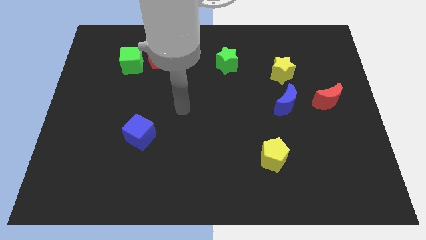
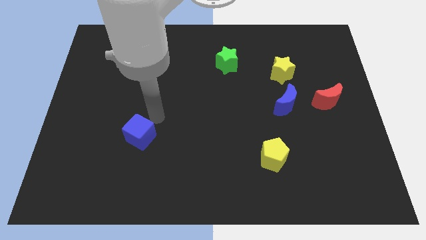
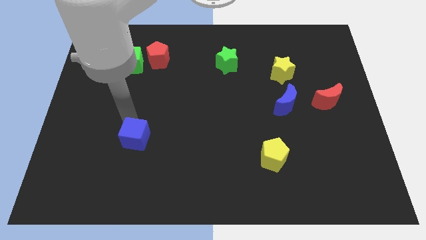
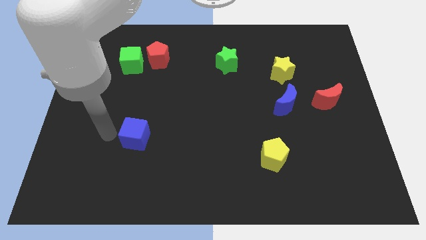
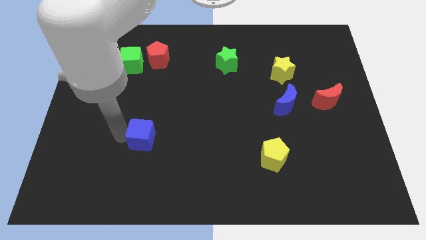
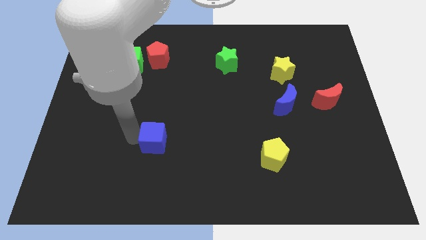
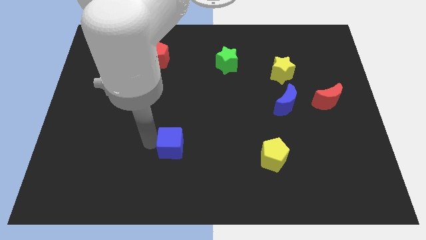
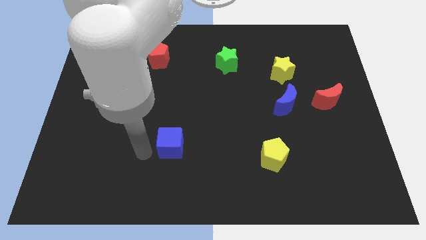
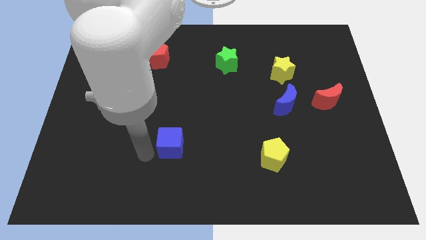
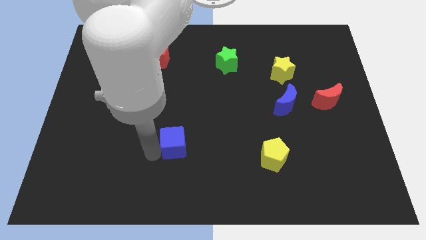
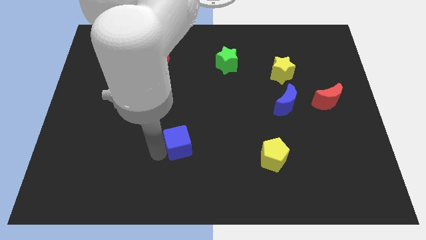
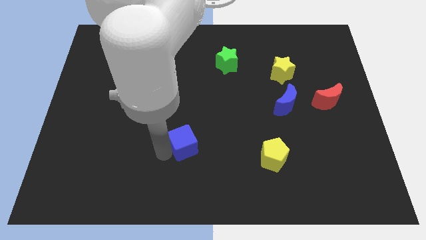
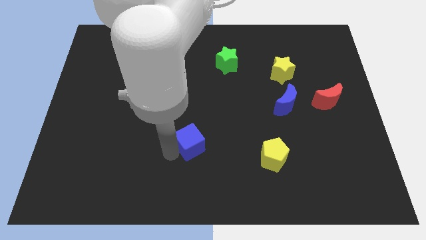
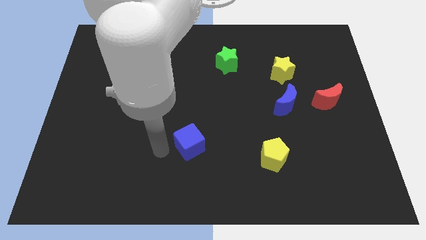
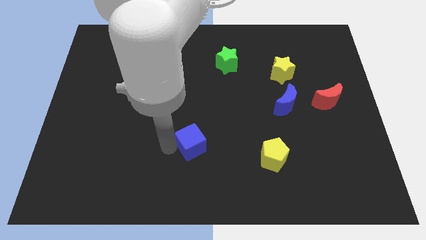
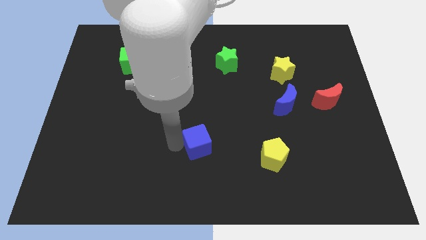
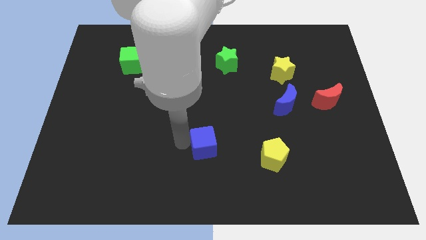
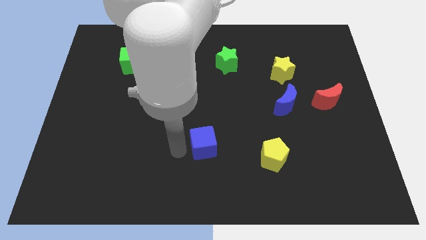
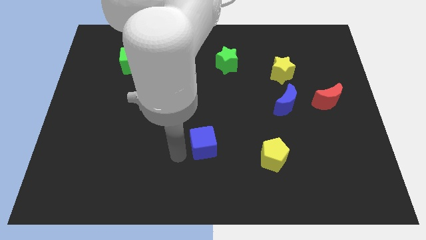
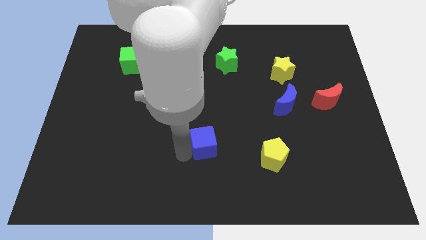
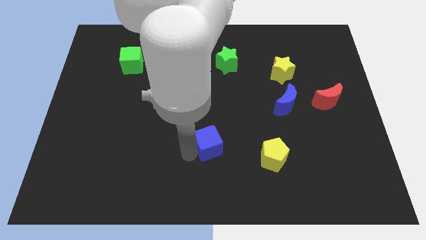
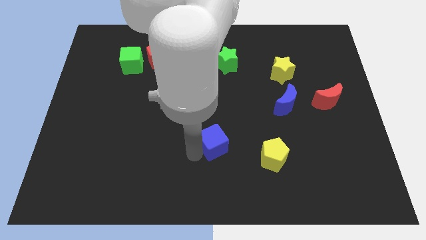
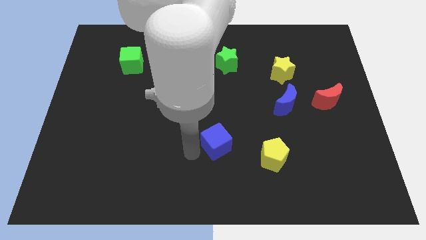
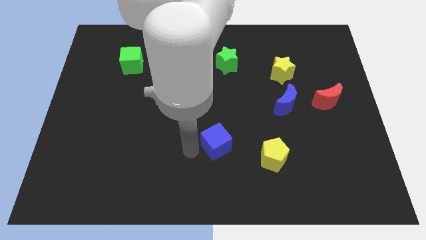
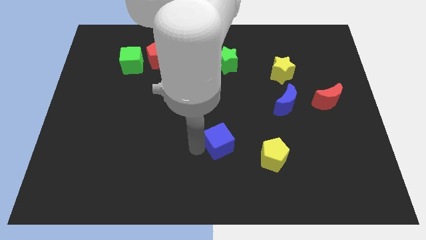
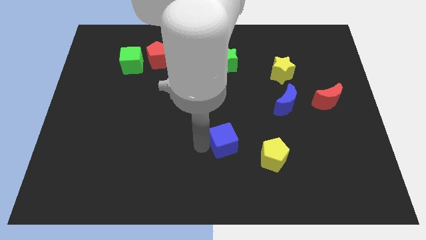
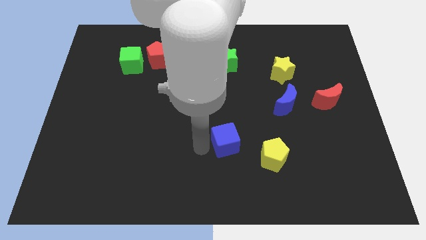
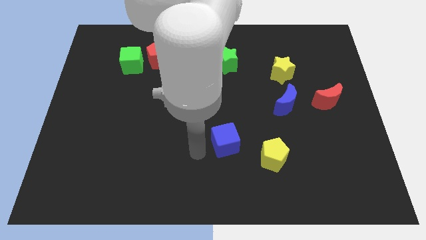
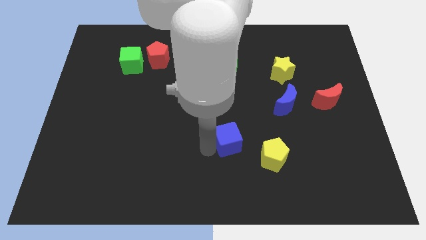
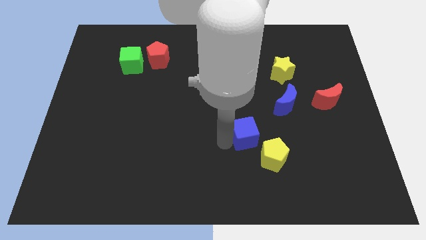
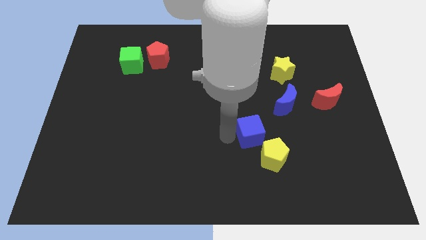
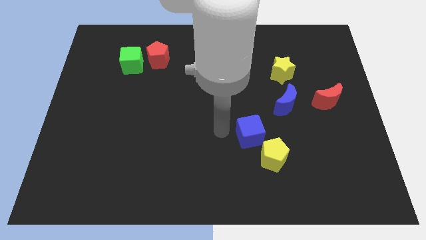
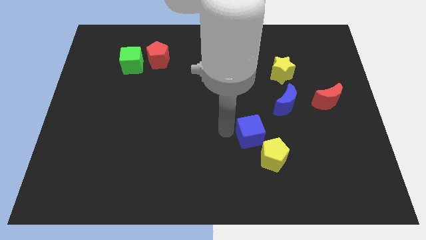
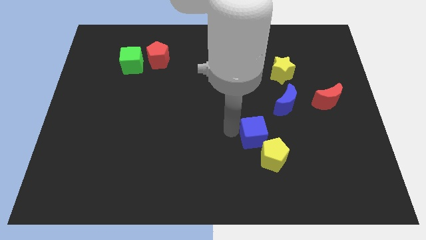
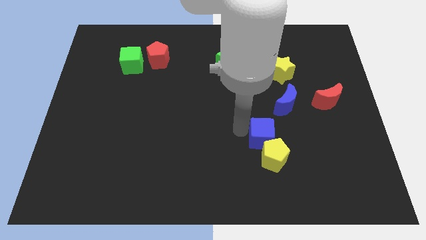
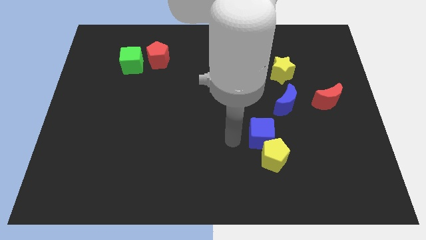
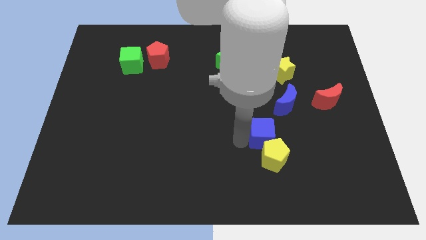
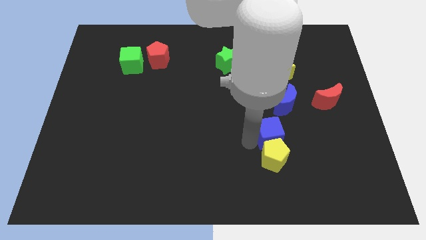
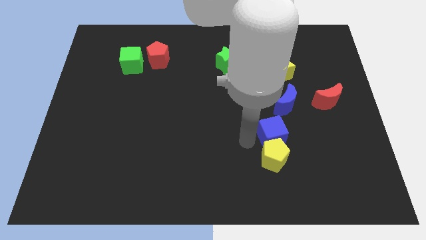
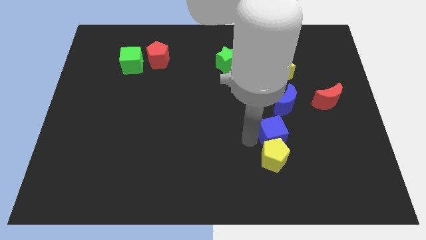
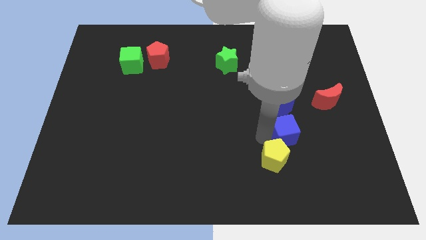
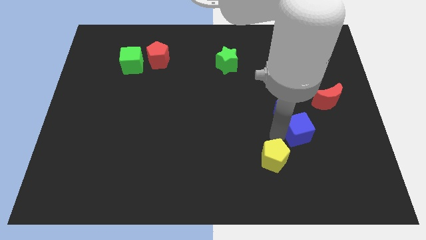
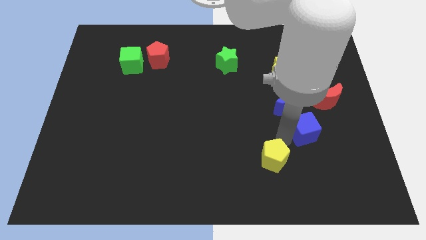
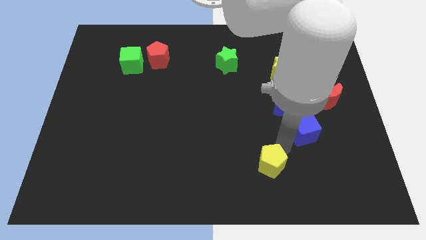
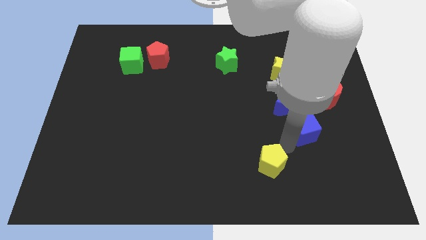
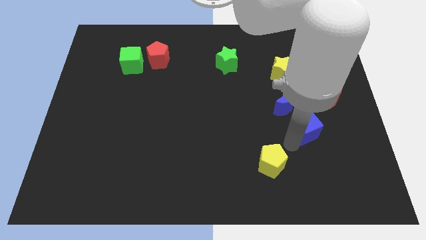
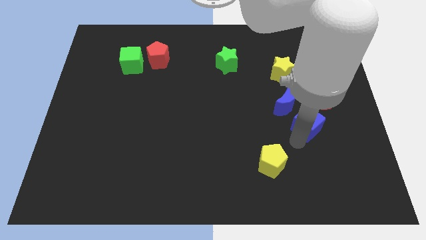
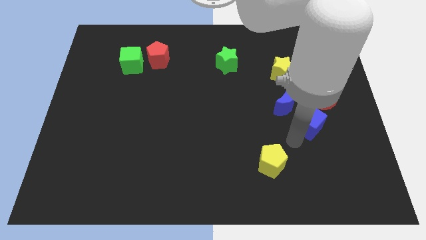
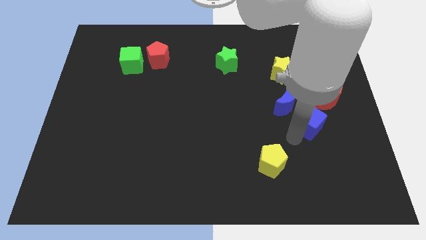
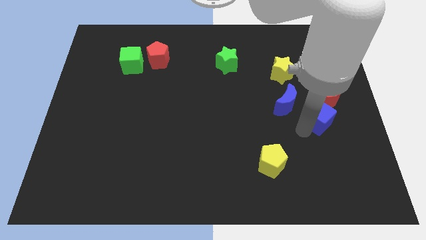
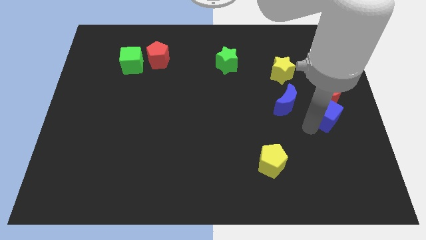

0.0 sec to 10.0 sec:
move the blue cube close to the red moon

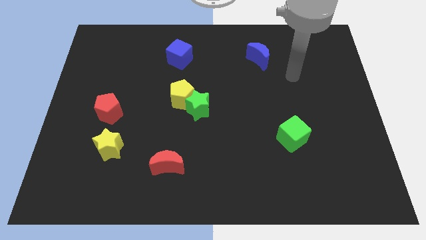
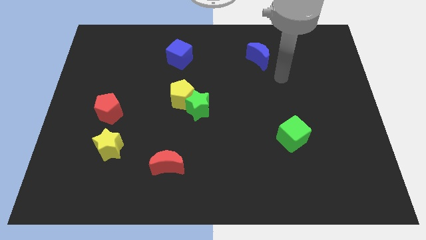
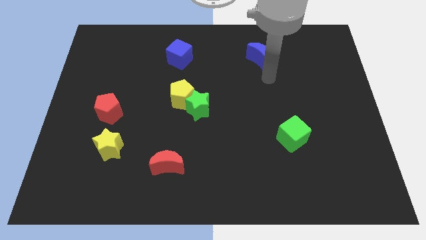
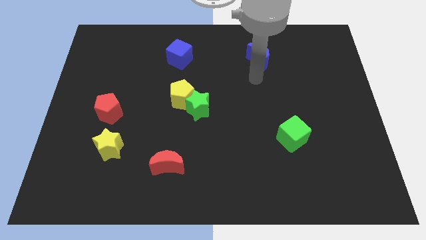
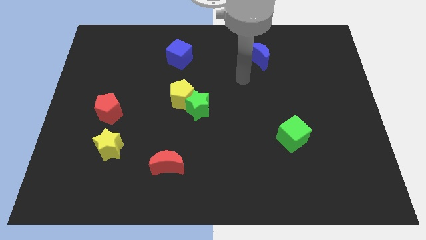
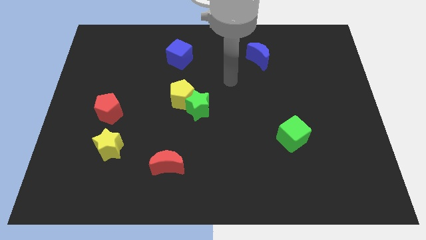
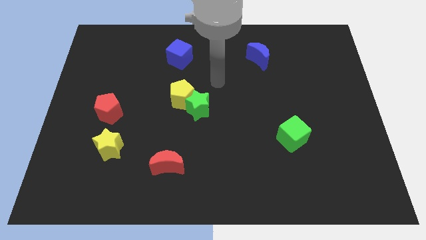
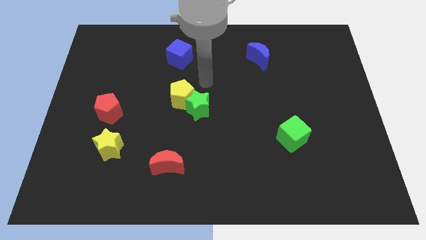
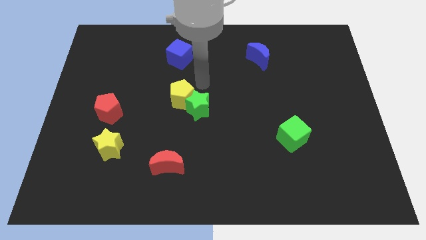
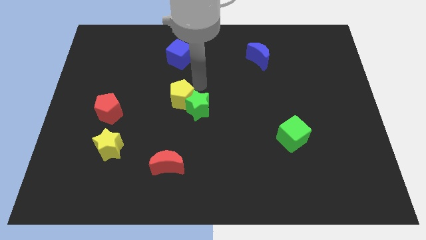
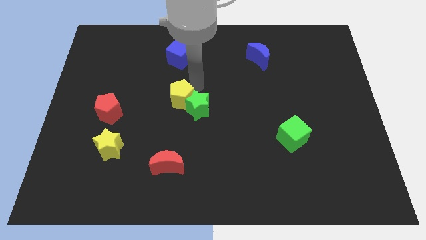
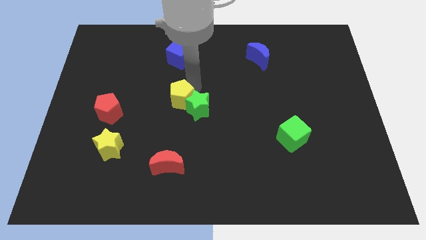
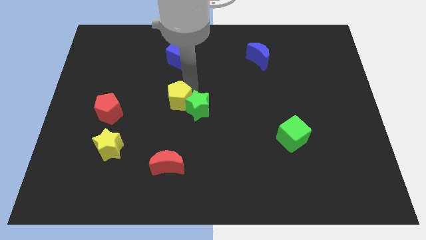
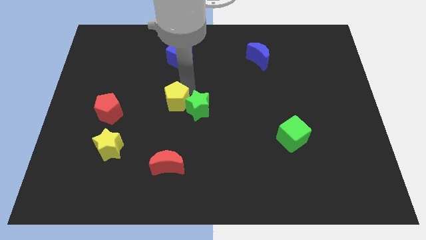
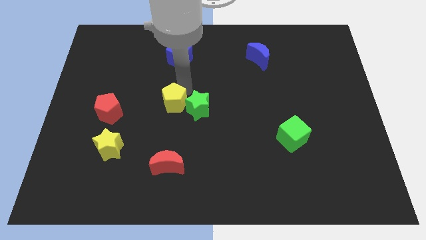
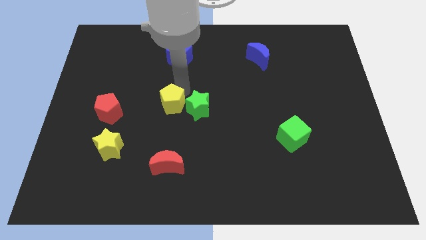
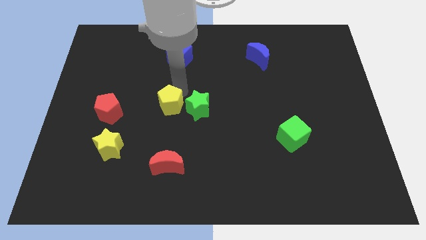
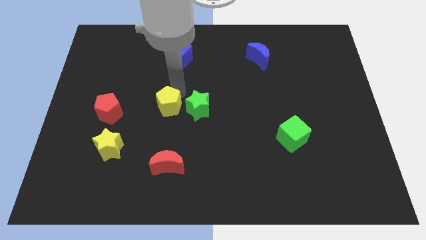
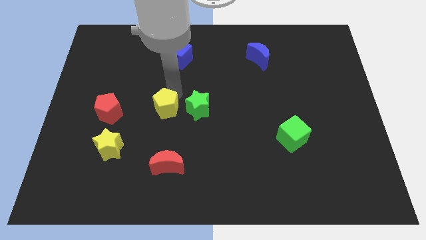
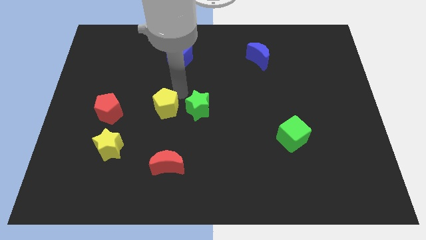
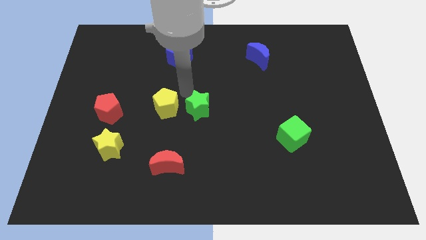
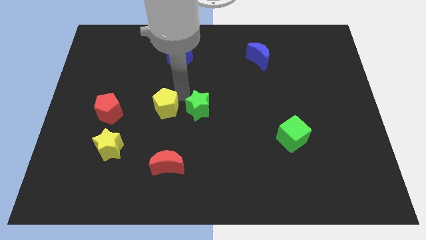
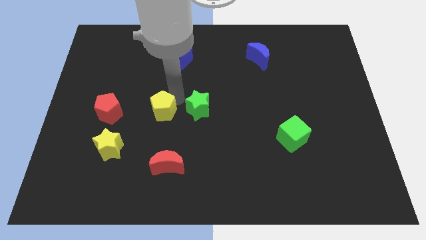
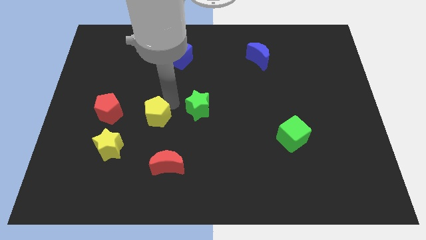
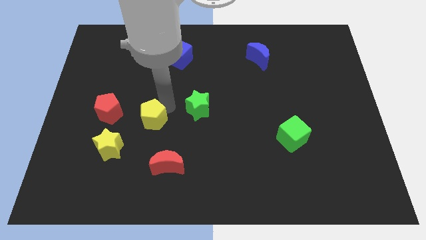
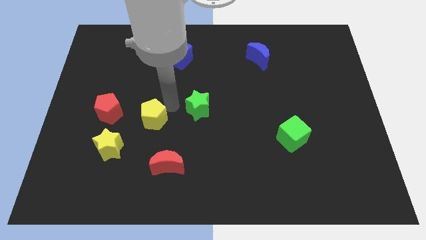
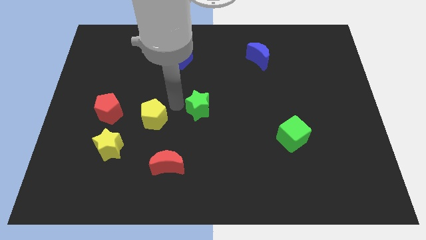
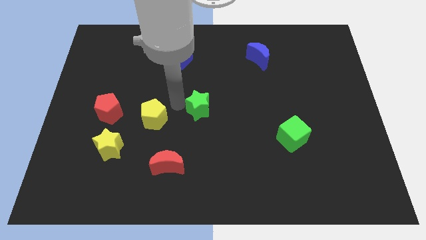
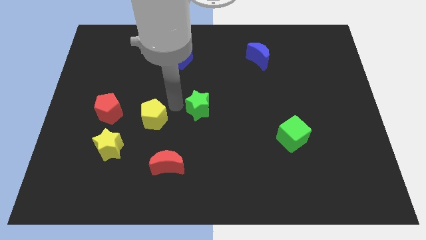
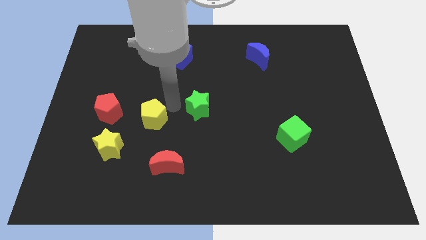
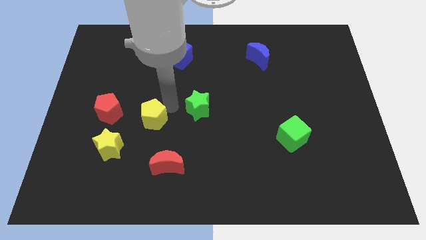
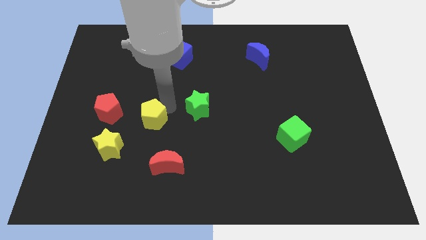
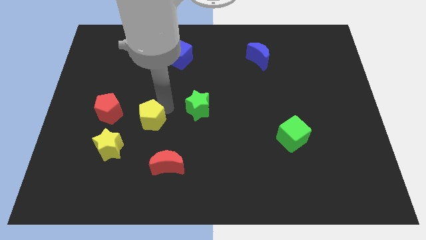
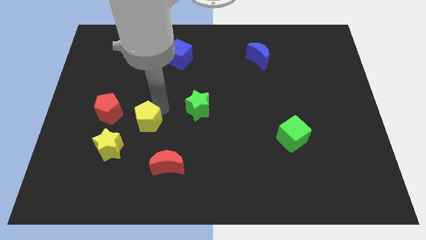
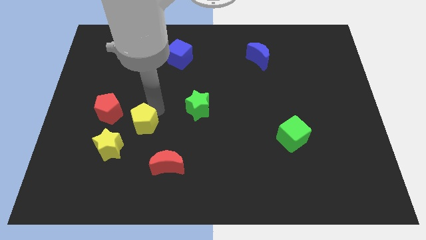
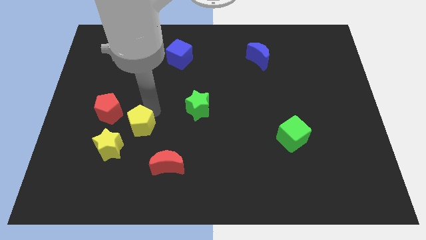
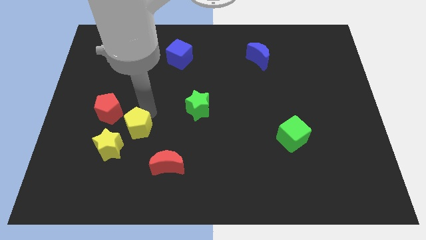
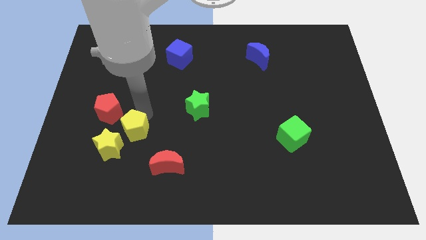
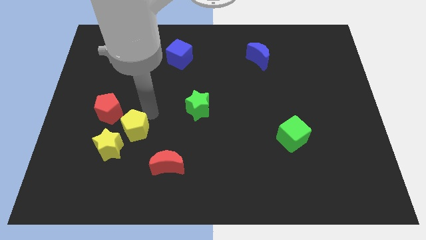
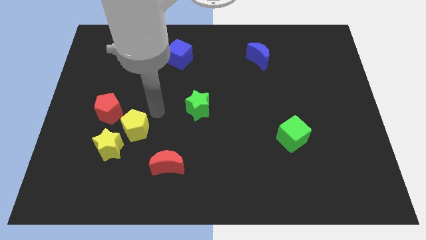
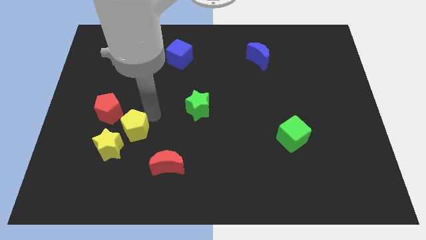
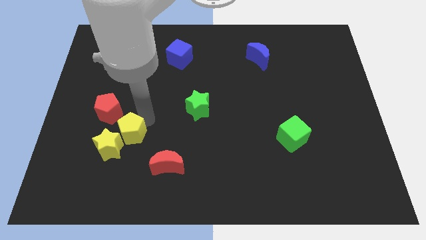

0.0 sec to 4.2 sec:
push the yellow pentagon next to the yellow star
